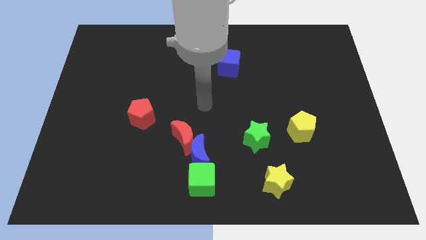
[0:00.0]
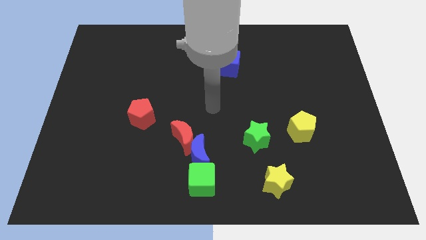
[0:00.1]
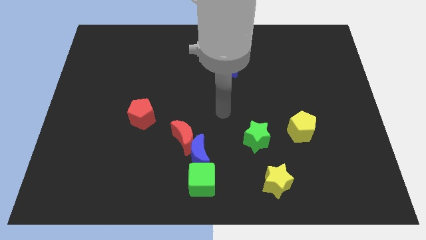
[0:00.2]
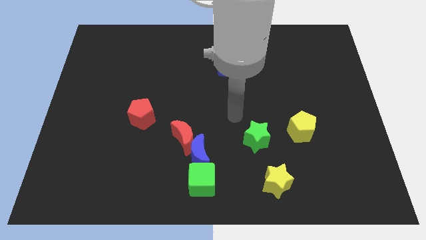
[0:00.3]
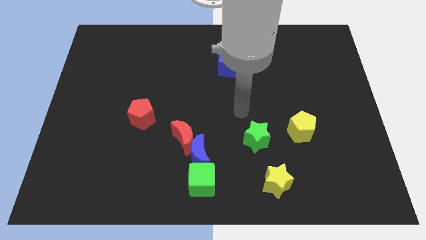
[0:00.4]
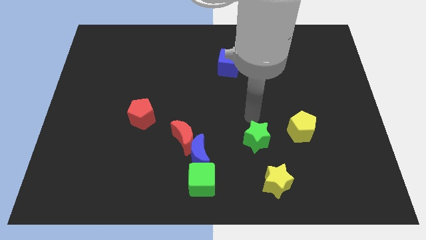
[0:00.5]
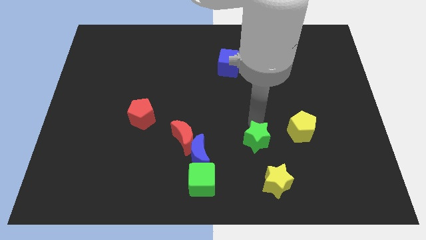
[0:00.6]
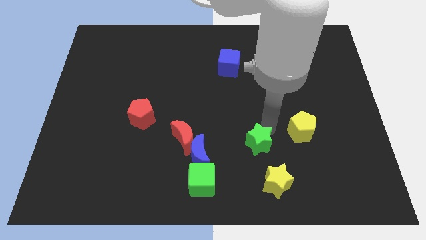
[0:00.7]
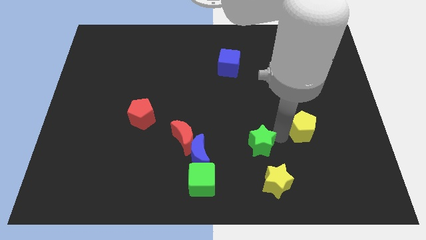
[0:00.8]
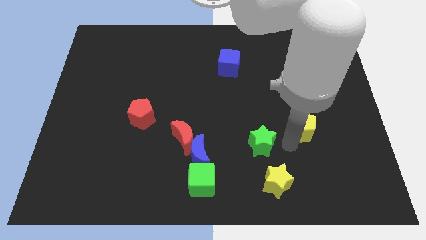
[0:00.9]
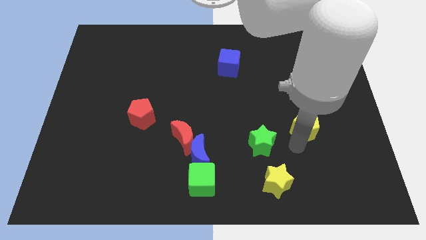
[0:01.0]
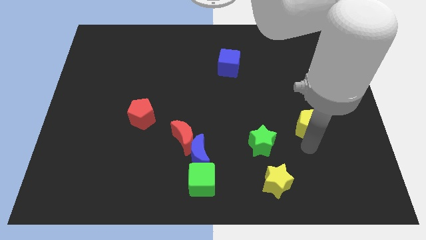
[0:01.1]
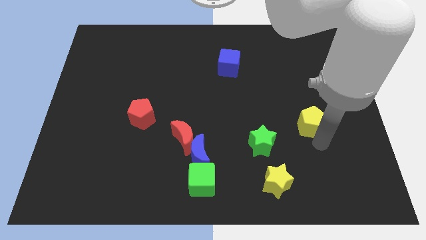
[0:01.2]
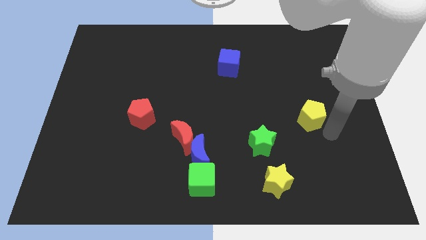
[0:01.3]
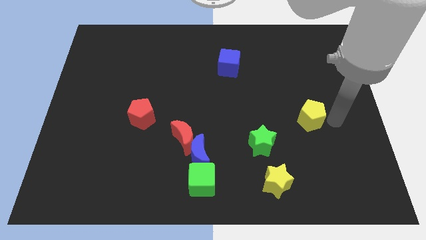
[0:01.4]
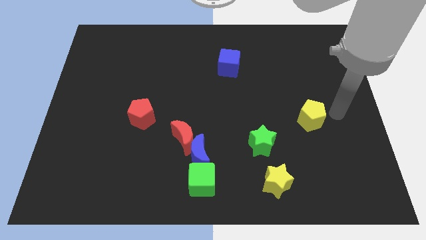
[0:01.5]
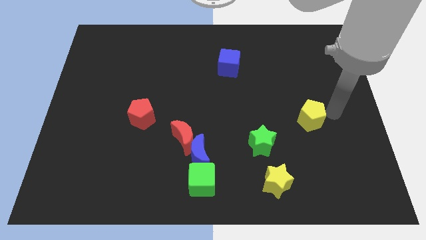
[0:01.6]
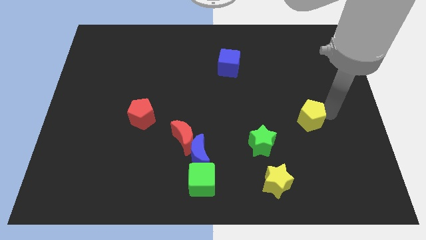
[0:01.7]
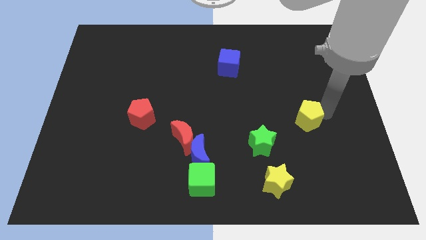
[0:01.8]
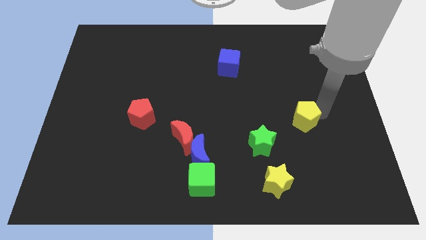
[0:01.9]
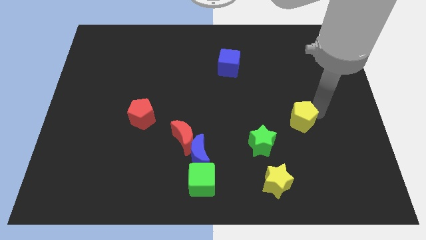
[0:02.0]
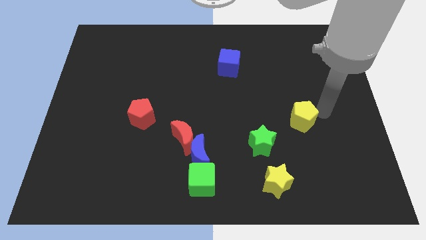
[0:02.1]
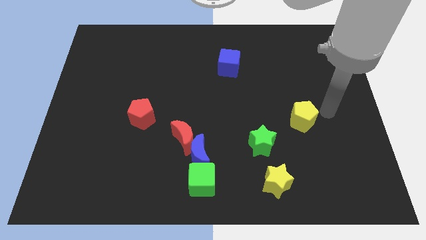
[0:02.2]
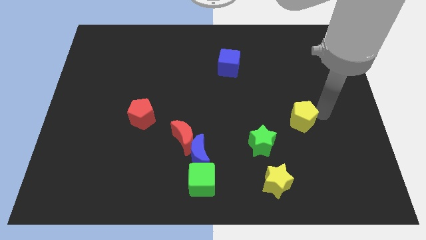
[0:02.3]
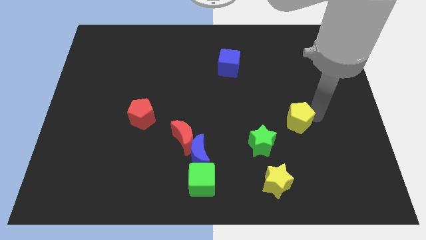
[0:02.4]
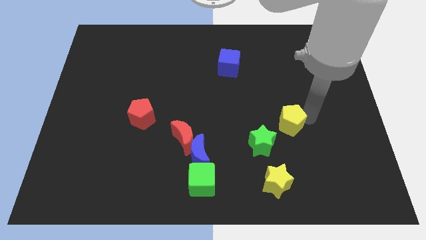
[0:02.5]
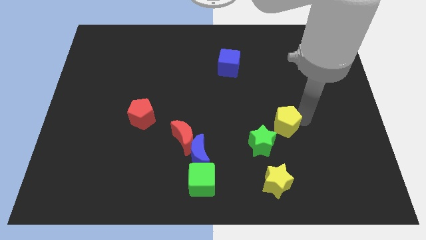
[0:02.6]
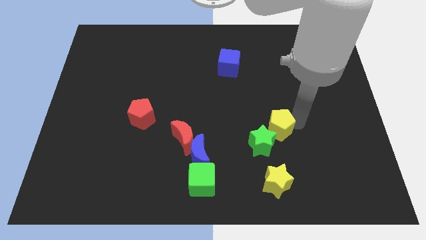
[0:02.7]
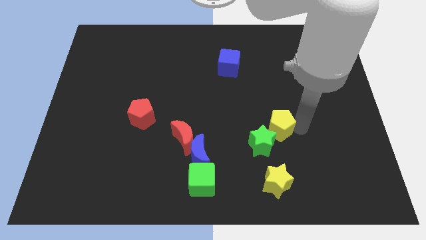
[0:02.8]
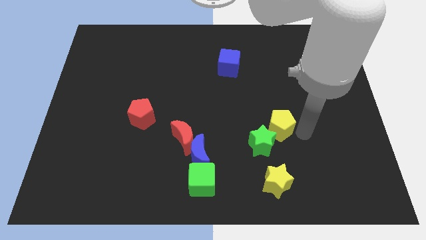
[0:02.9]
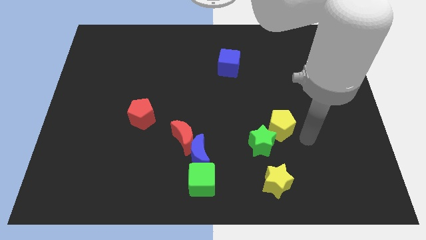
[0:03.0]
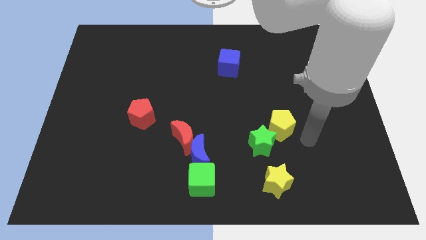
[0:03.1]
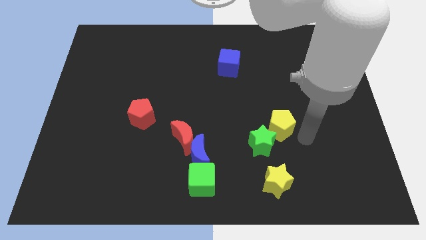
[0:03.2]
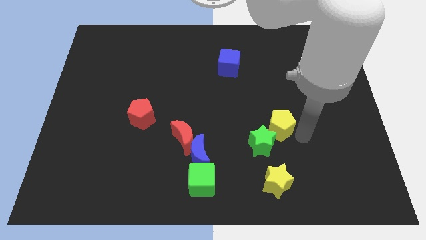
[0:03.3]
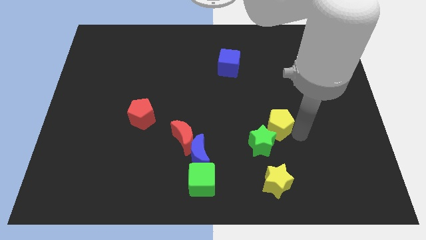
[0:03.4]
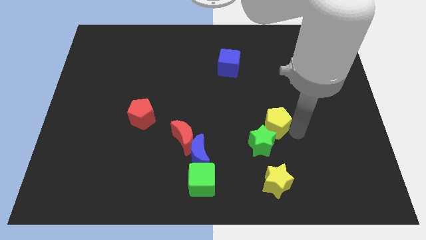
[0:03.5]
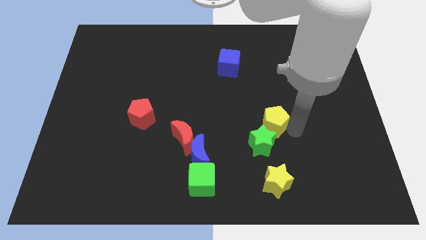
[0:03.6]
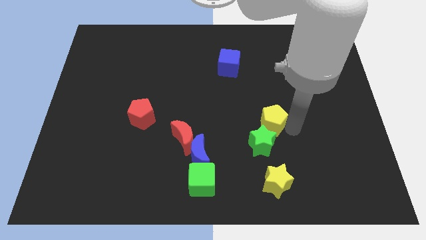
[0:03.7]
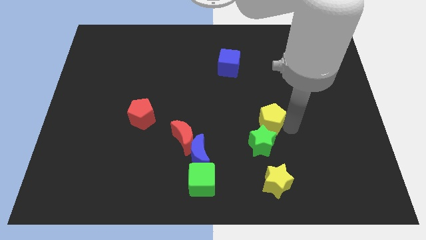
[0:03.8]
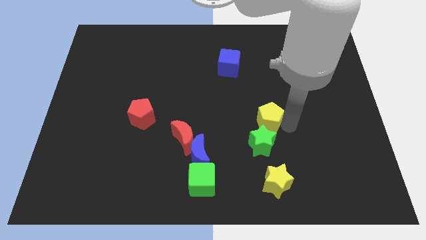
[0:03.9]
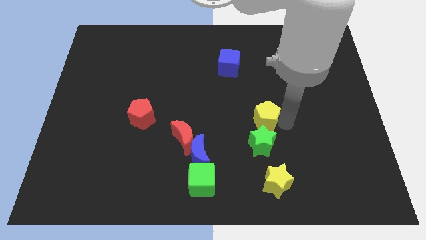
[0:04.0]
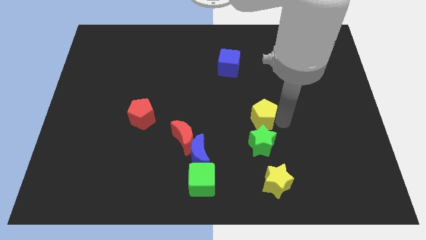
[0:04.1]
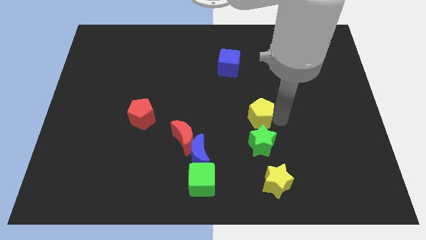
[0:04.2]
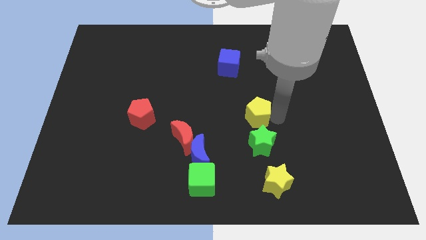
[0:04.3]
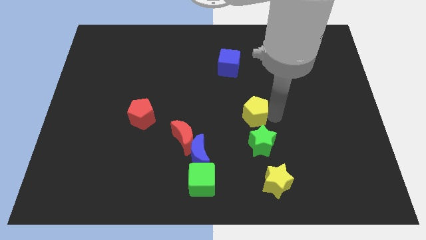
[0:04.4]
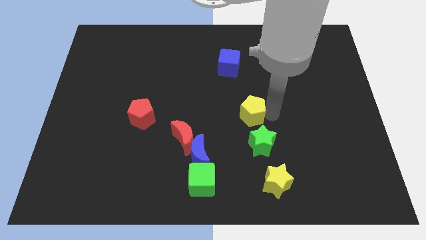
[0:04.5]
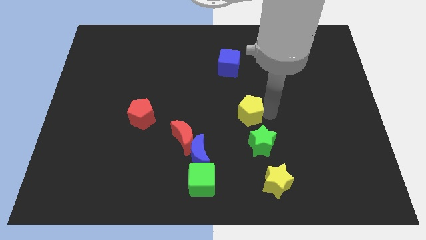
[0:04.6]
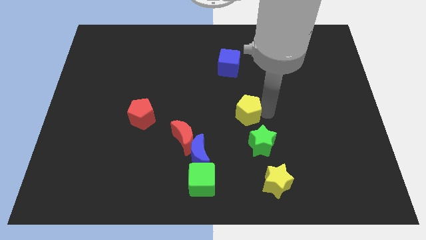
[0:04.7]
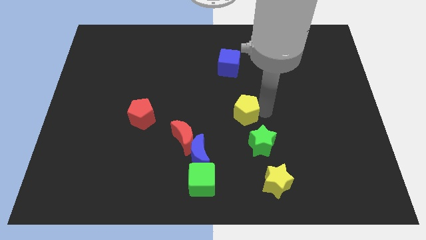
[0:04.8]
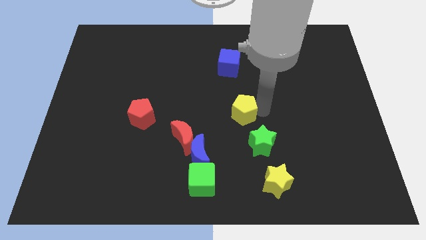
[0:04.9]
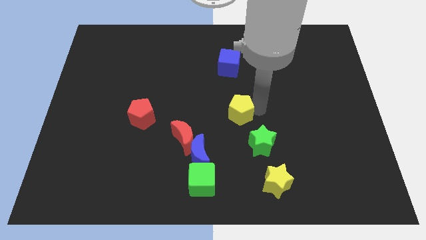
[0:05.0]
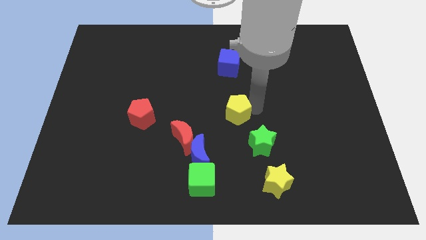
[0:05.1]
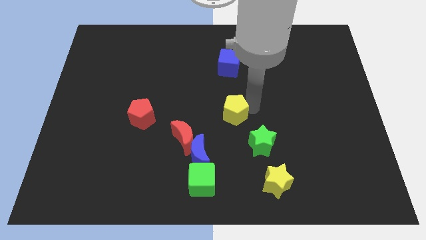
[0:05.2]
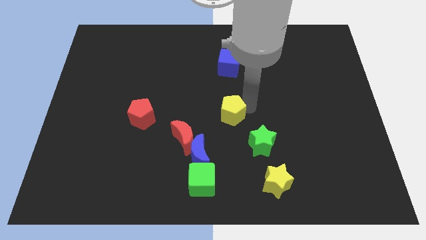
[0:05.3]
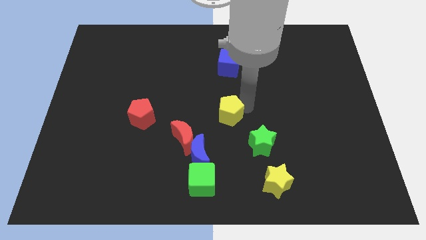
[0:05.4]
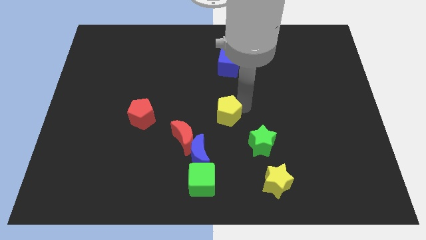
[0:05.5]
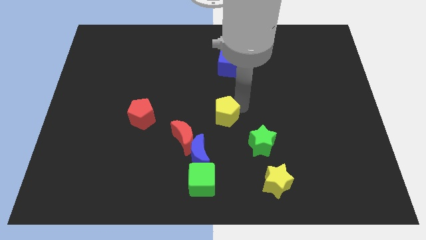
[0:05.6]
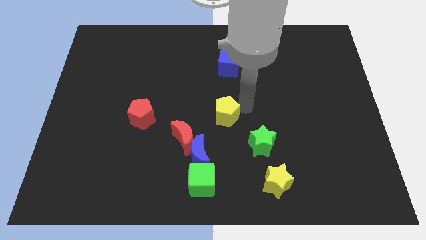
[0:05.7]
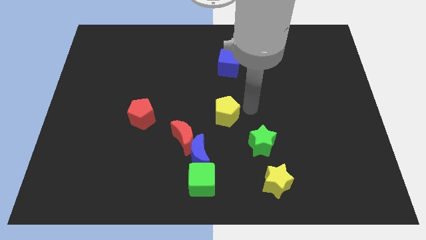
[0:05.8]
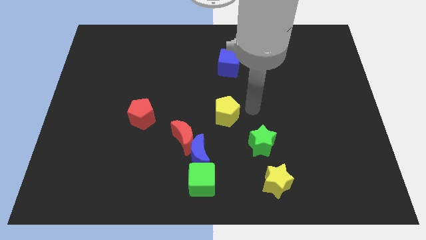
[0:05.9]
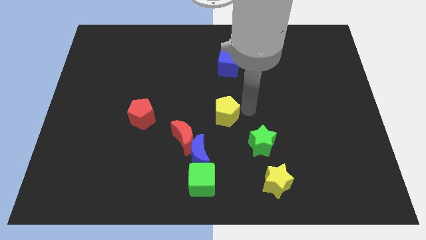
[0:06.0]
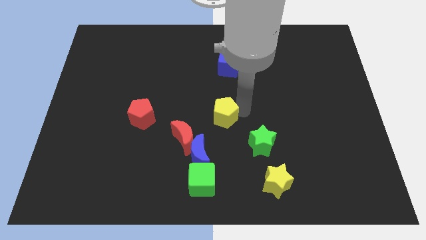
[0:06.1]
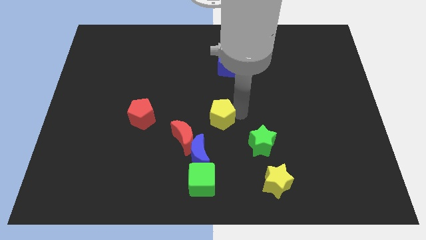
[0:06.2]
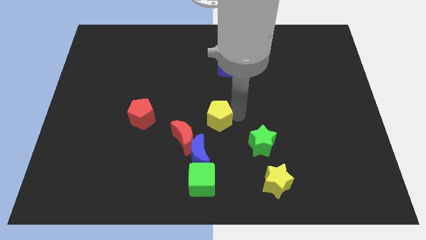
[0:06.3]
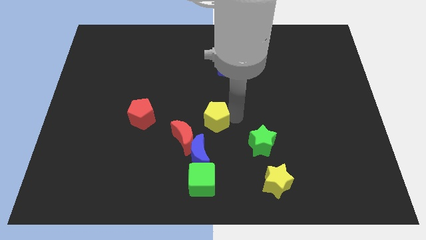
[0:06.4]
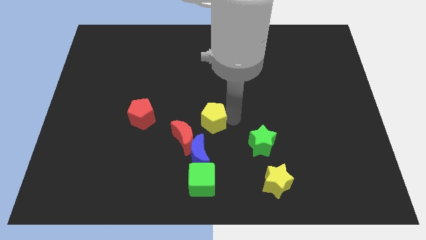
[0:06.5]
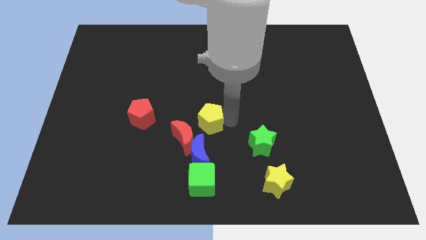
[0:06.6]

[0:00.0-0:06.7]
move the yellow pentagon to the left

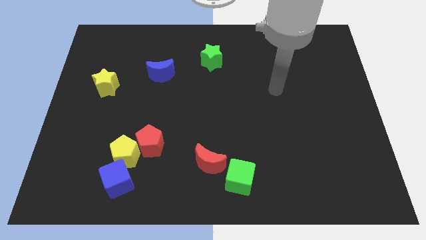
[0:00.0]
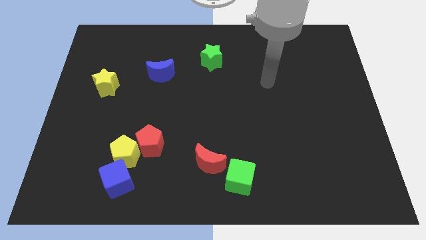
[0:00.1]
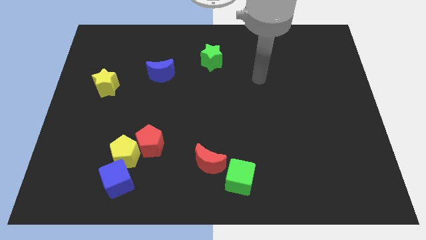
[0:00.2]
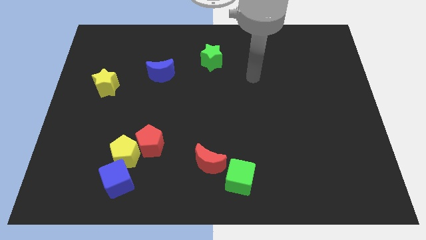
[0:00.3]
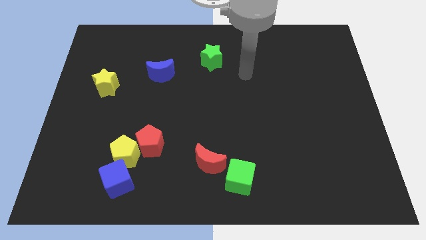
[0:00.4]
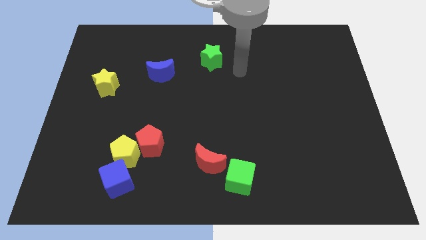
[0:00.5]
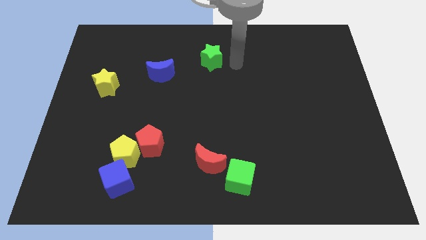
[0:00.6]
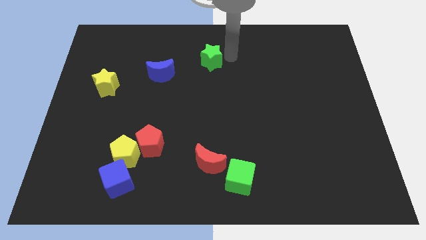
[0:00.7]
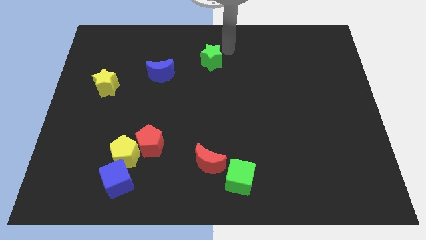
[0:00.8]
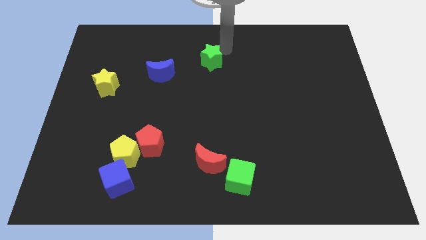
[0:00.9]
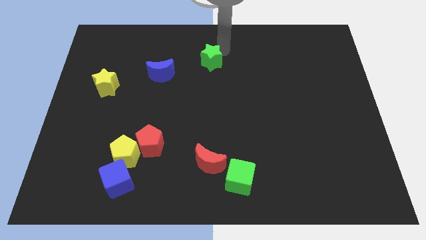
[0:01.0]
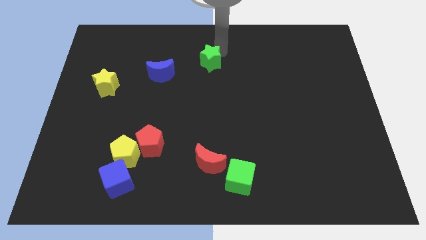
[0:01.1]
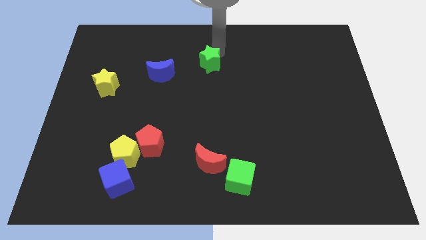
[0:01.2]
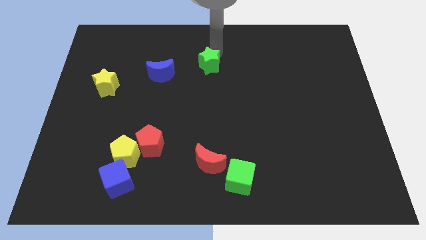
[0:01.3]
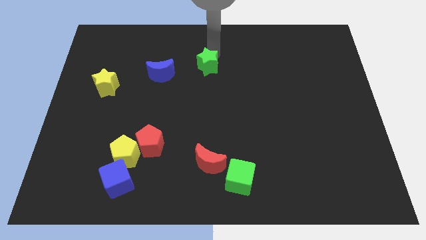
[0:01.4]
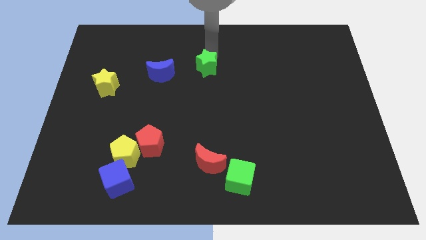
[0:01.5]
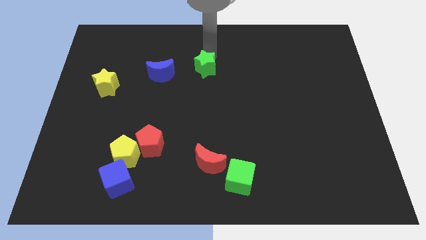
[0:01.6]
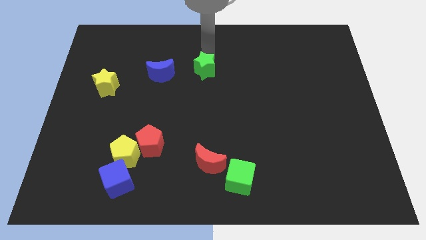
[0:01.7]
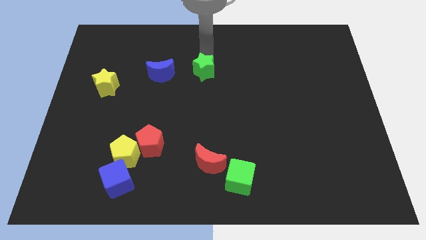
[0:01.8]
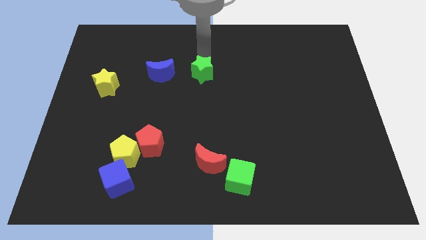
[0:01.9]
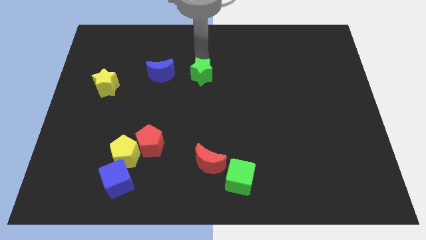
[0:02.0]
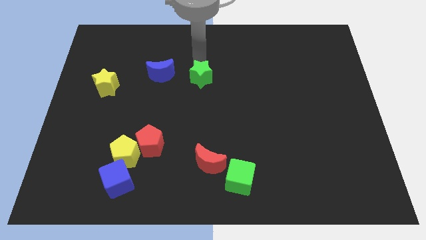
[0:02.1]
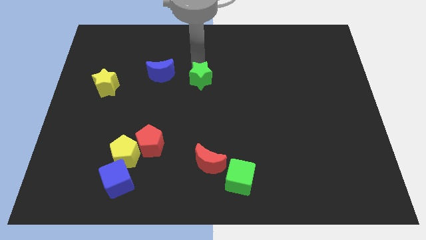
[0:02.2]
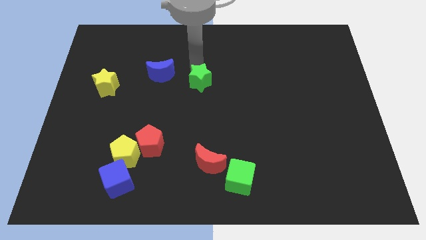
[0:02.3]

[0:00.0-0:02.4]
push the green star down and left diagonally a bit
